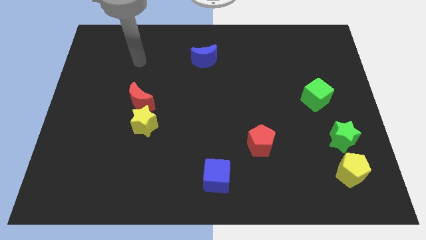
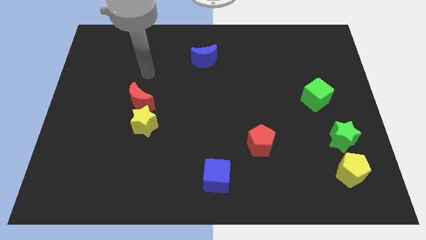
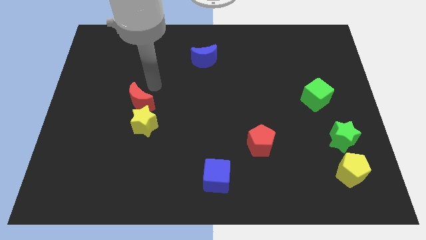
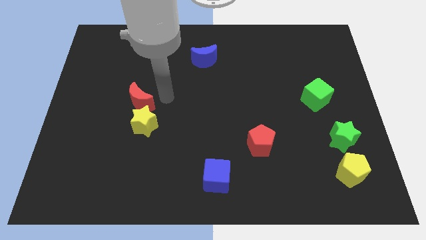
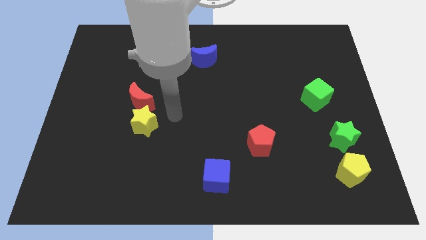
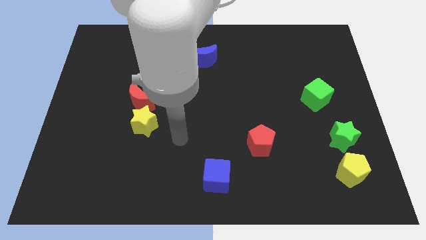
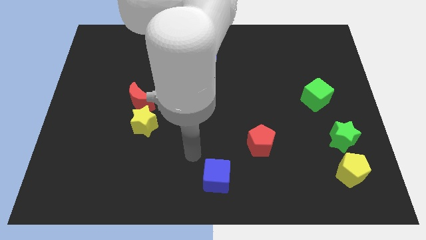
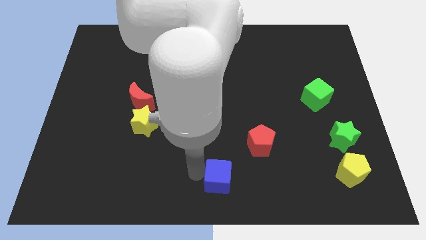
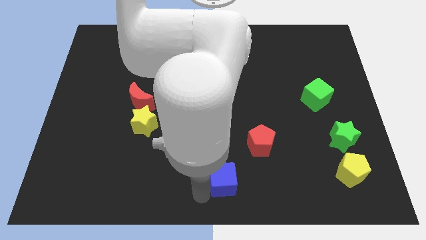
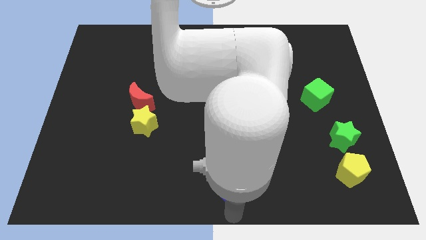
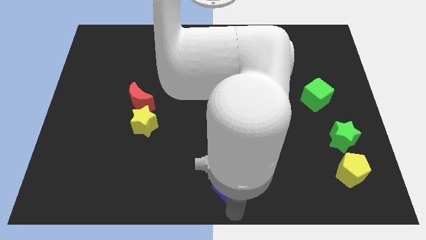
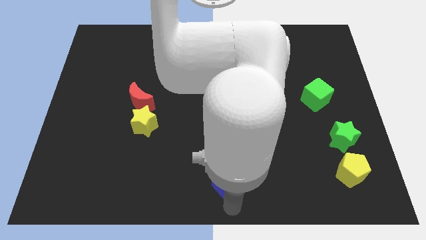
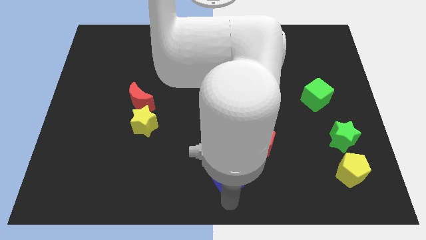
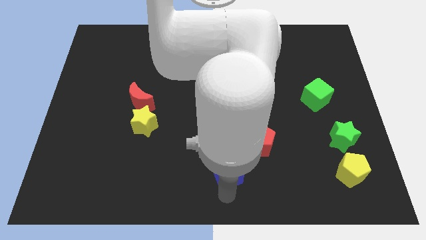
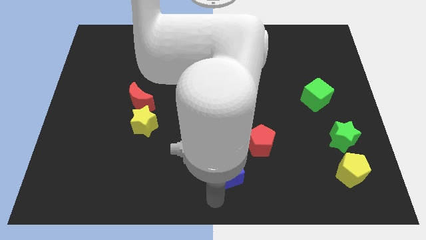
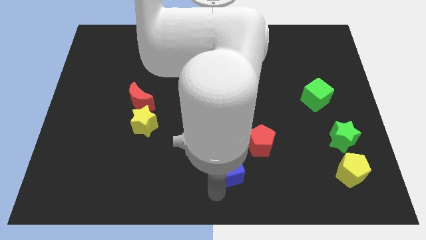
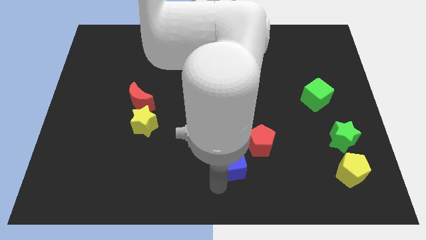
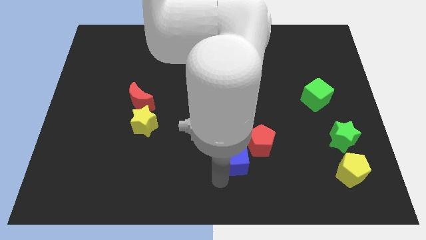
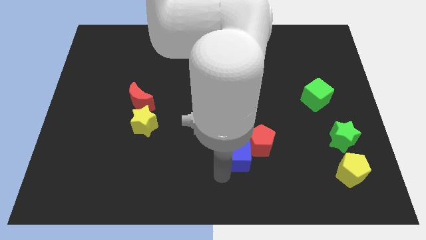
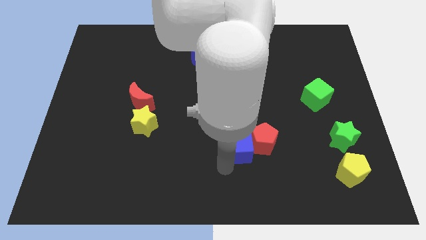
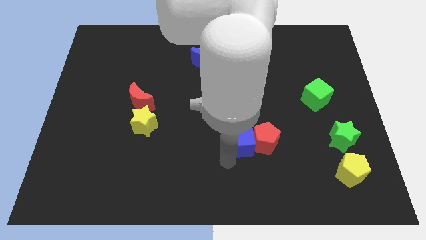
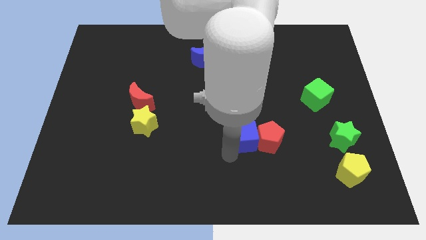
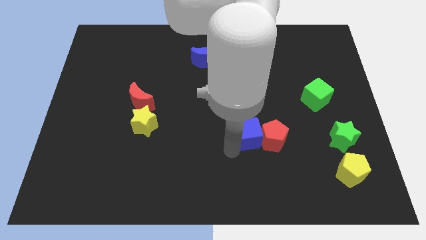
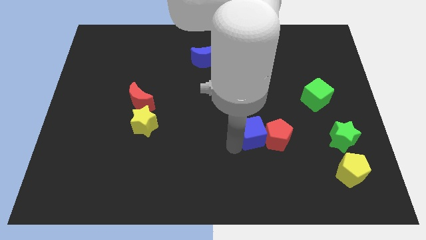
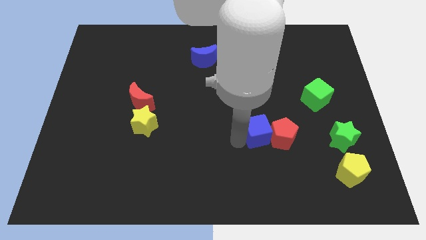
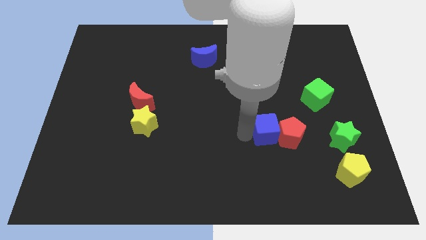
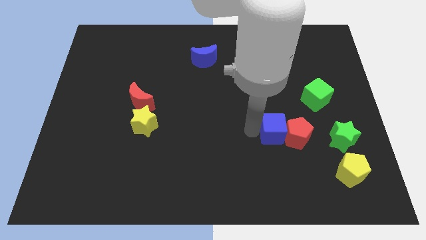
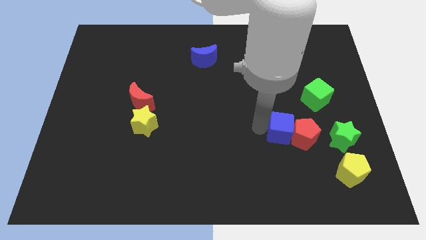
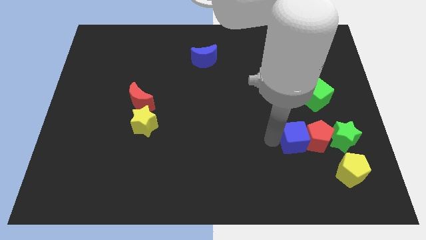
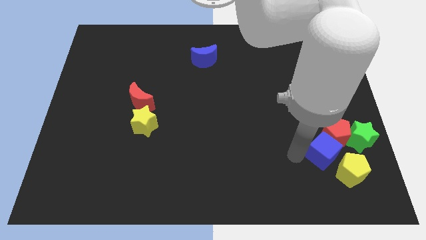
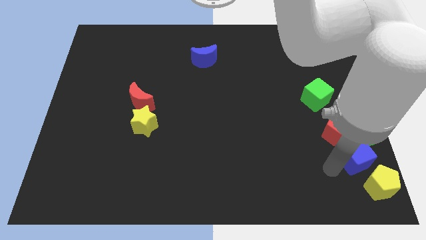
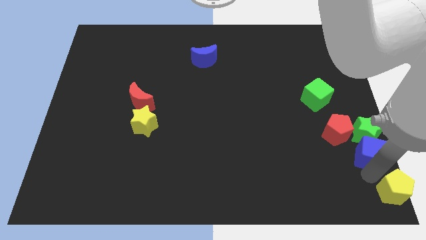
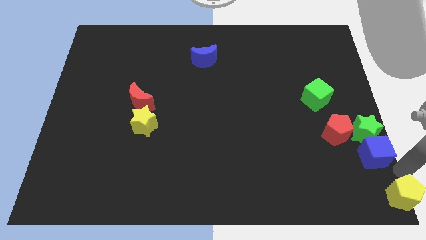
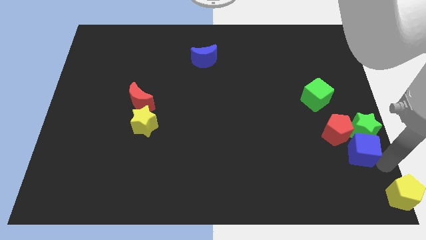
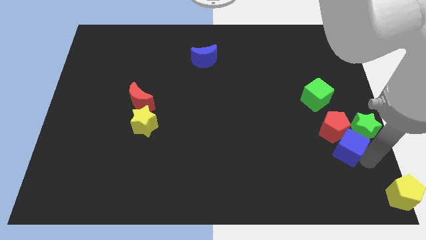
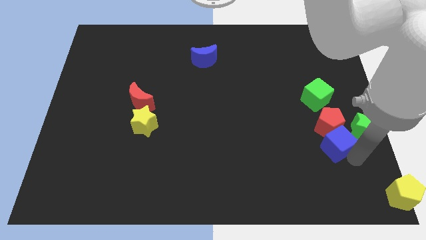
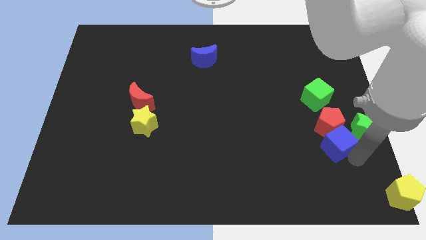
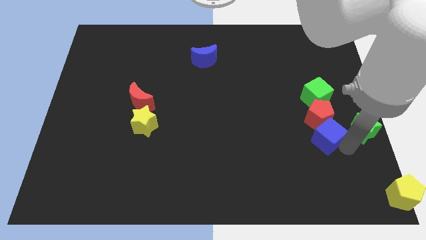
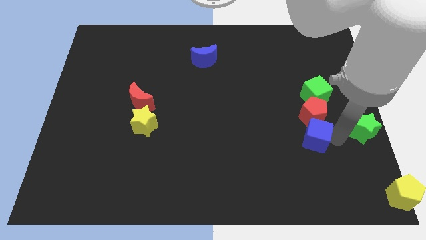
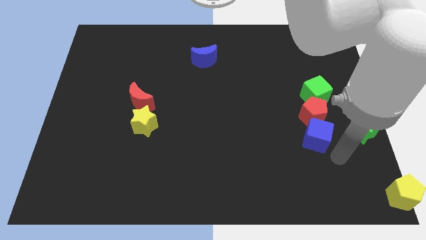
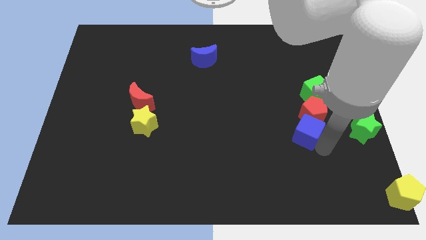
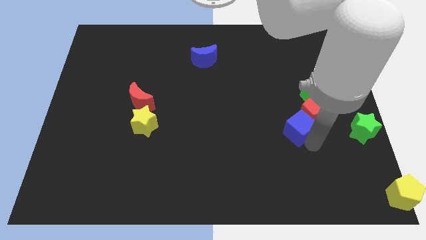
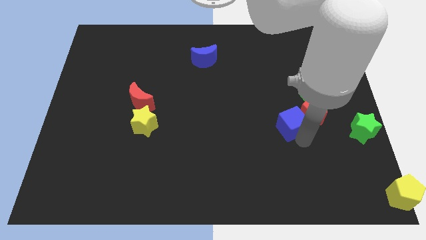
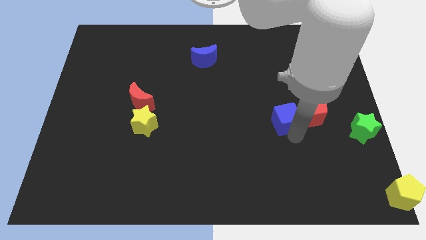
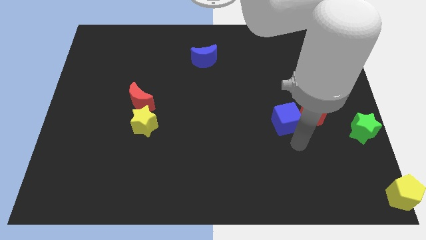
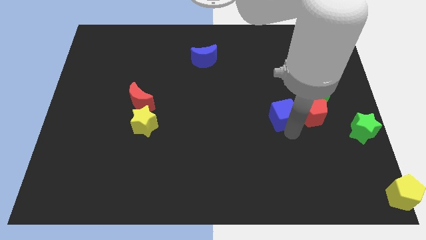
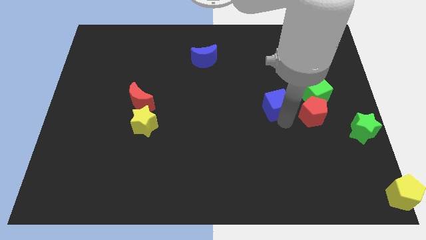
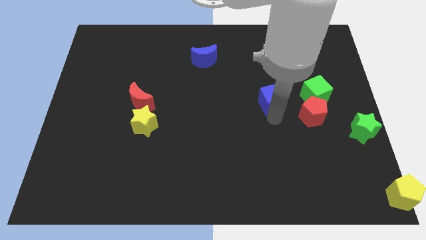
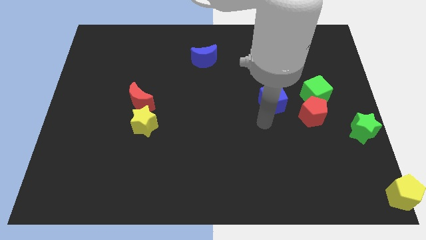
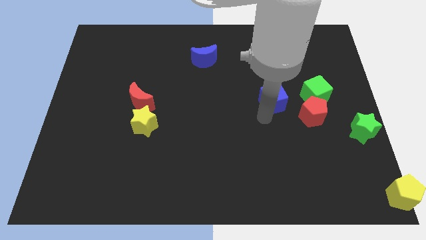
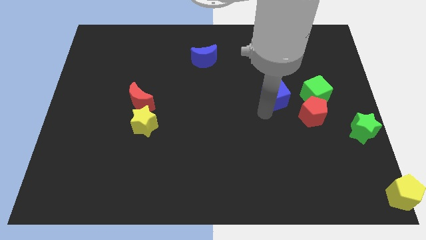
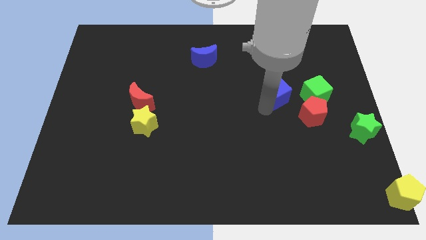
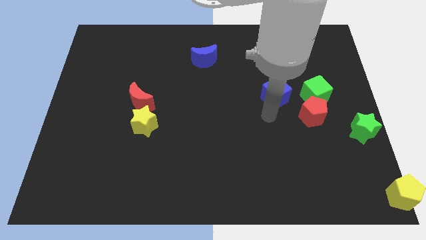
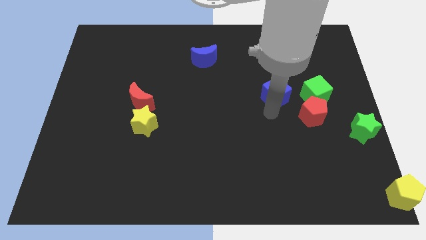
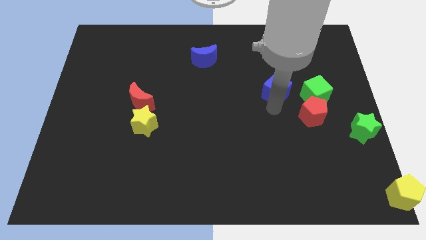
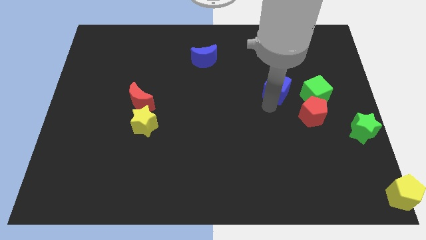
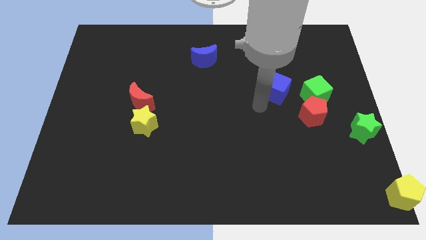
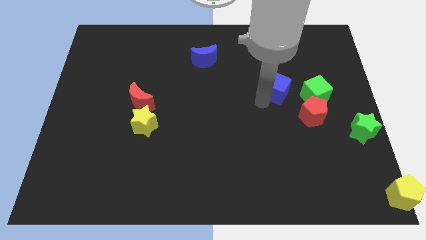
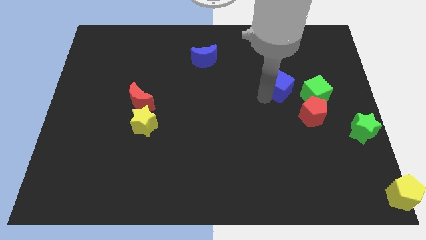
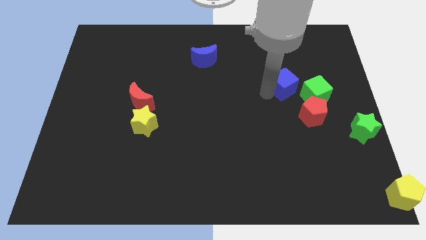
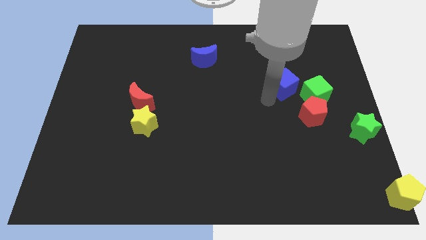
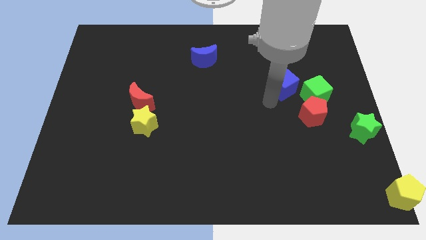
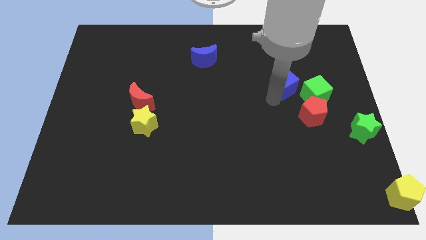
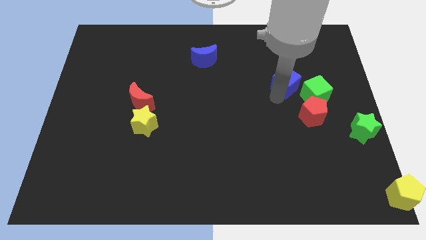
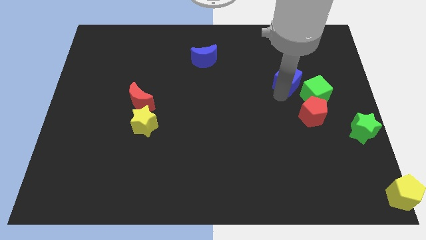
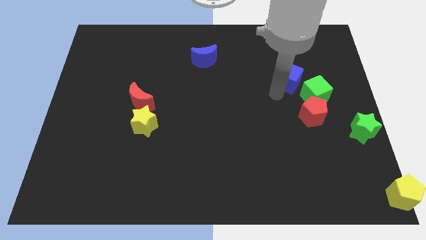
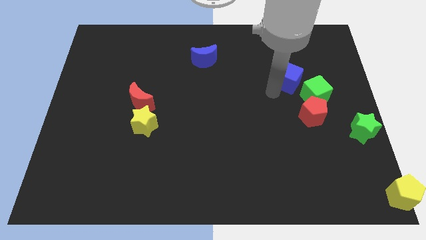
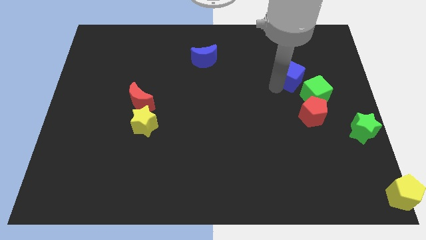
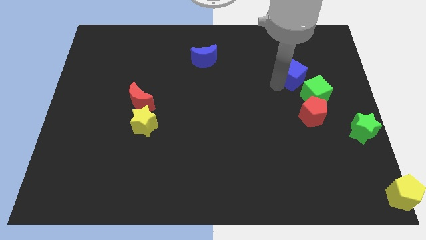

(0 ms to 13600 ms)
slide the blue cube to the top of the green cube
